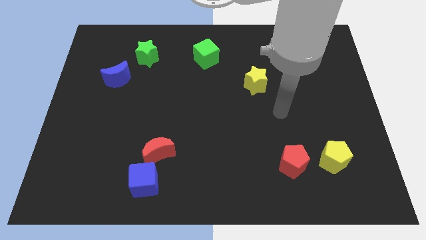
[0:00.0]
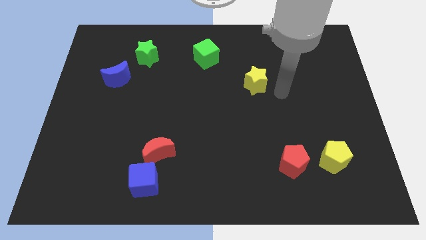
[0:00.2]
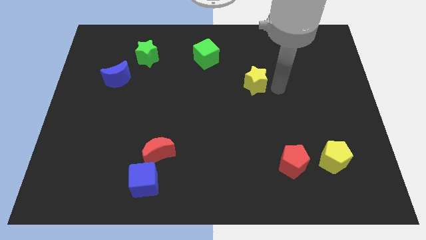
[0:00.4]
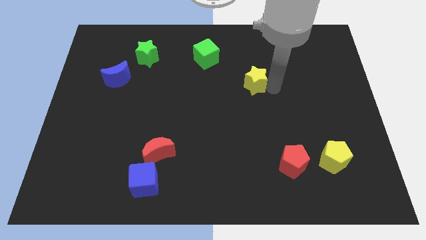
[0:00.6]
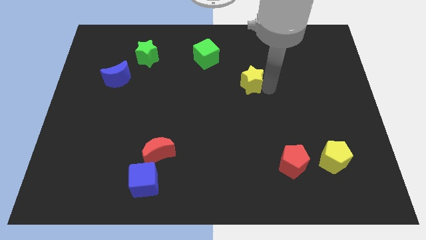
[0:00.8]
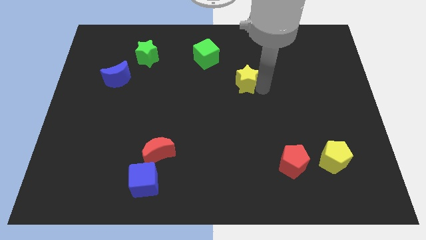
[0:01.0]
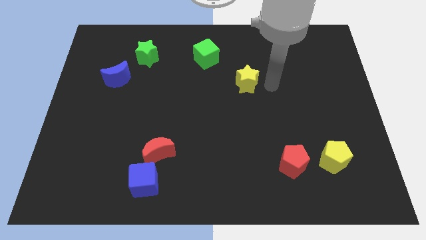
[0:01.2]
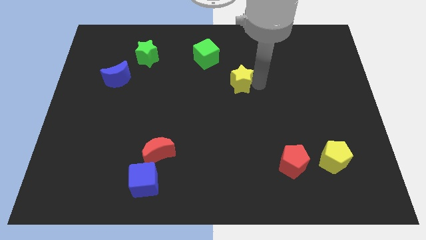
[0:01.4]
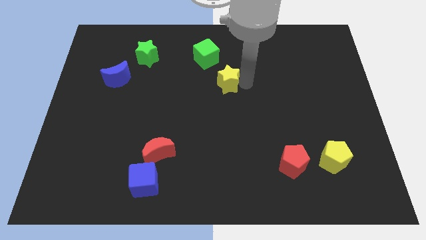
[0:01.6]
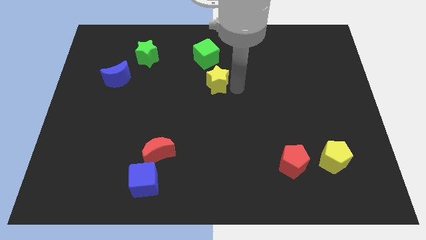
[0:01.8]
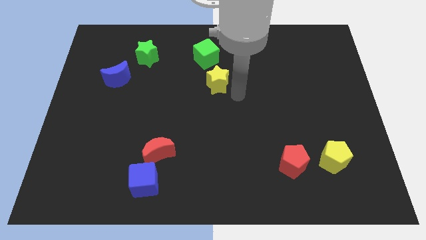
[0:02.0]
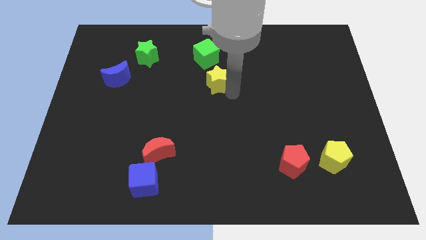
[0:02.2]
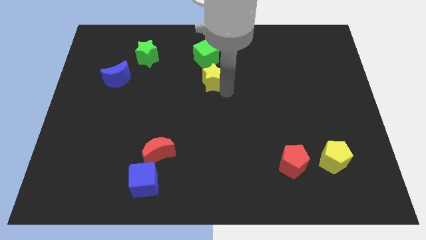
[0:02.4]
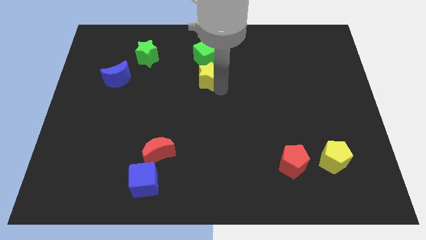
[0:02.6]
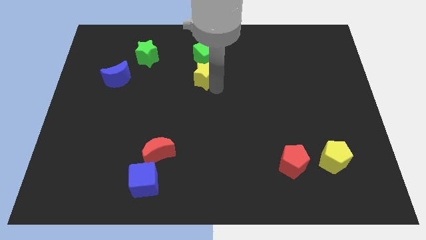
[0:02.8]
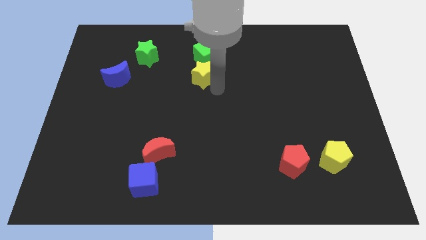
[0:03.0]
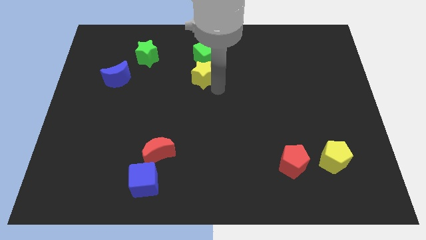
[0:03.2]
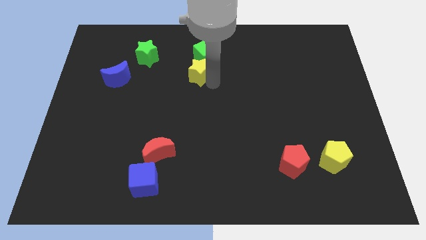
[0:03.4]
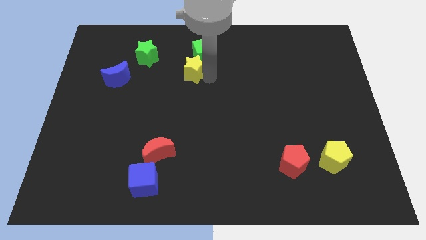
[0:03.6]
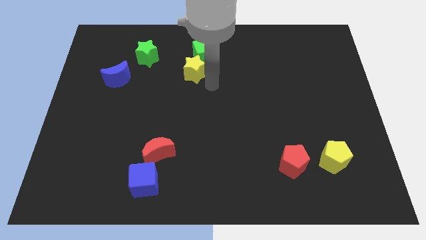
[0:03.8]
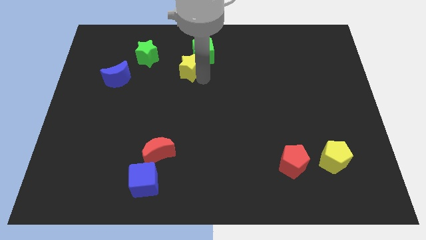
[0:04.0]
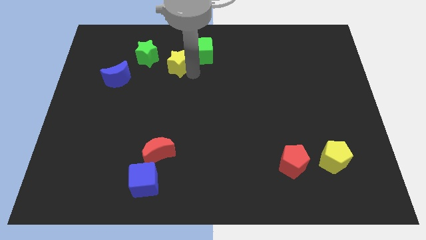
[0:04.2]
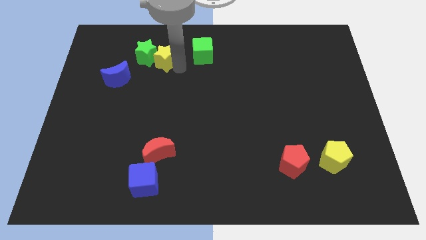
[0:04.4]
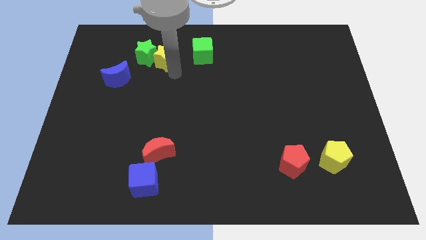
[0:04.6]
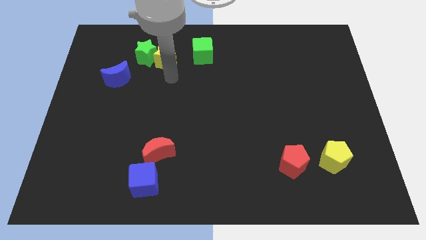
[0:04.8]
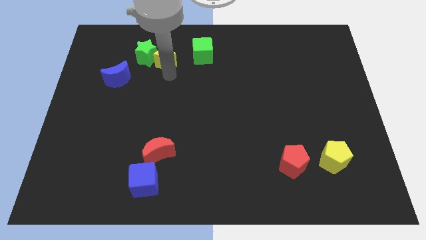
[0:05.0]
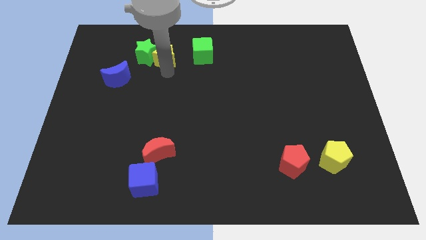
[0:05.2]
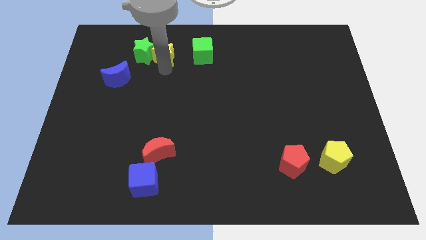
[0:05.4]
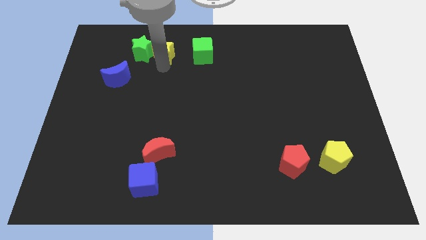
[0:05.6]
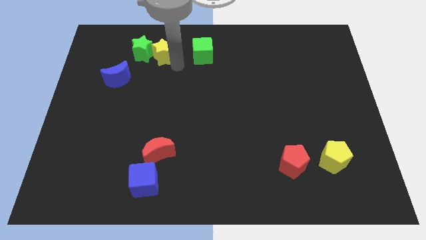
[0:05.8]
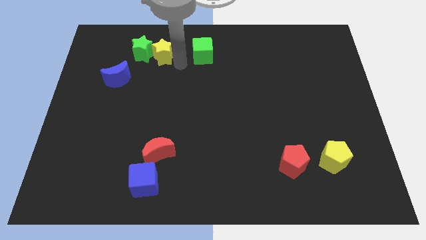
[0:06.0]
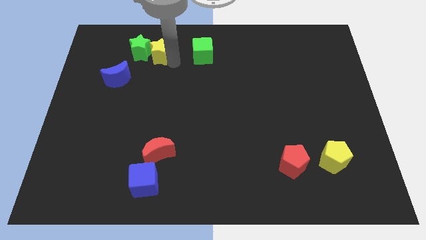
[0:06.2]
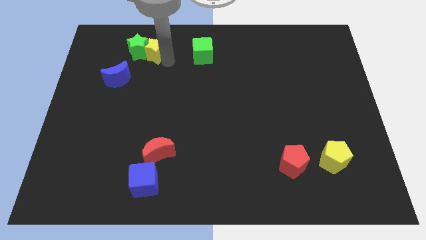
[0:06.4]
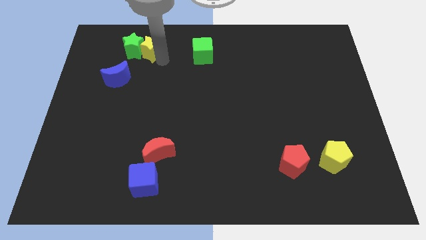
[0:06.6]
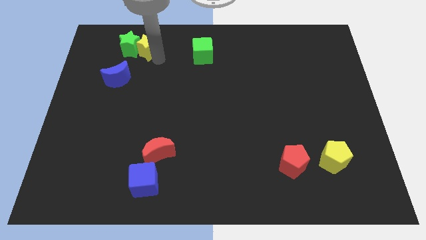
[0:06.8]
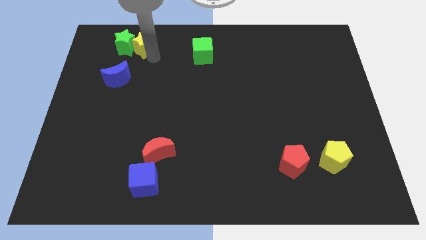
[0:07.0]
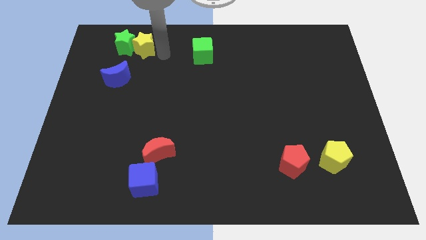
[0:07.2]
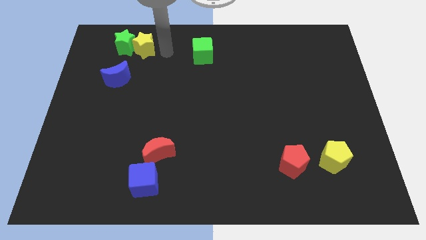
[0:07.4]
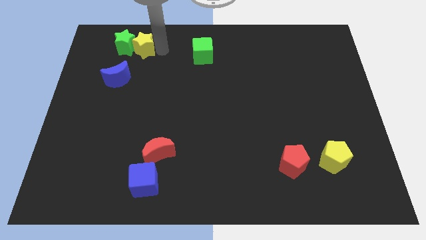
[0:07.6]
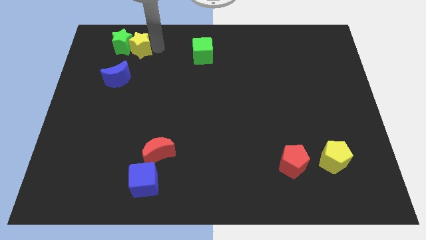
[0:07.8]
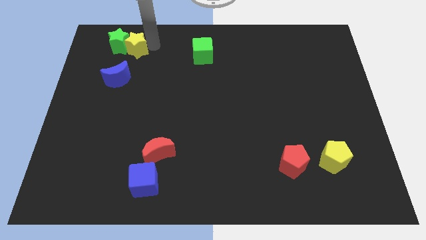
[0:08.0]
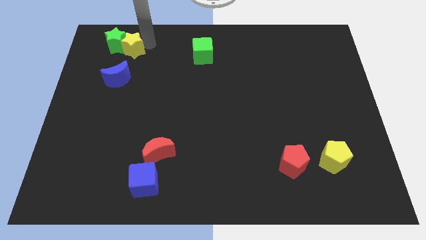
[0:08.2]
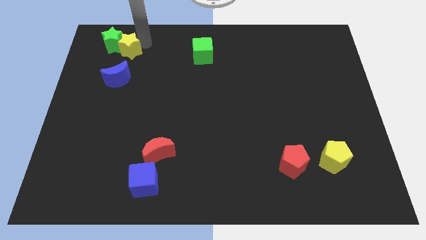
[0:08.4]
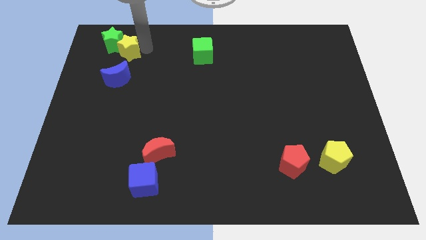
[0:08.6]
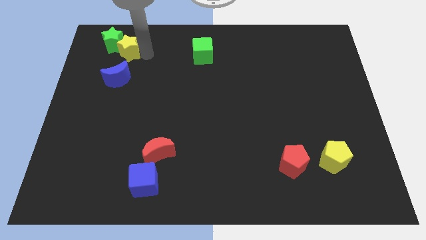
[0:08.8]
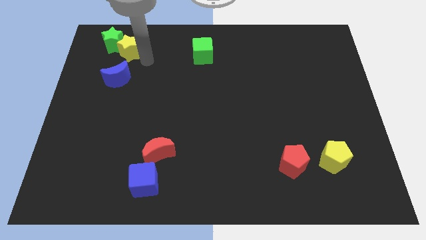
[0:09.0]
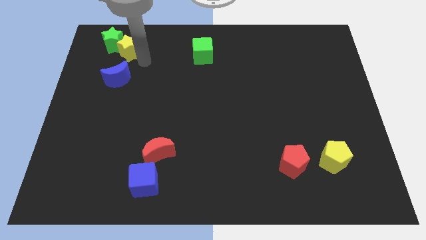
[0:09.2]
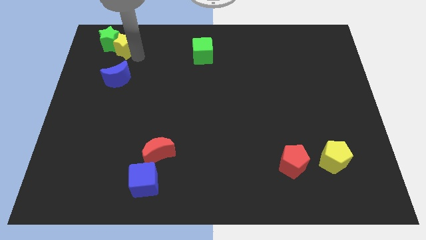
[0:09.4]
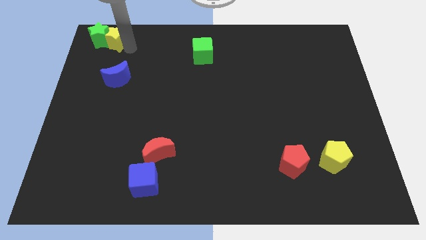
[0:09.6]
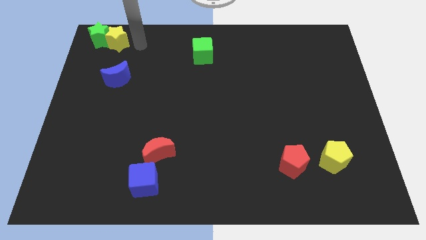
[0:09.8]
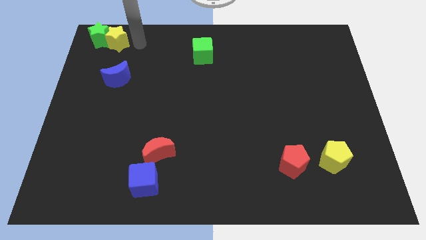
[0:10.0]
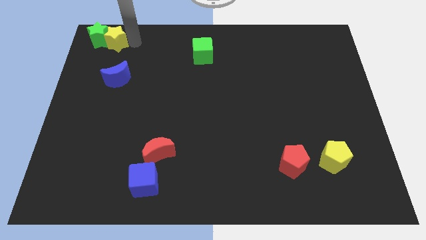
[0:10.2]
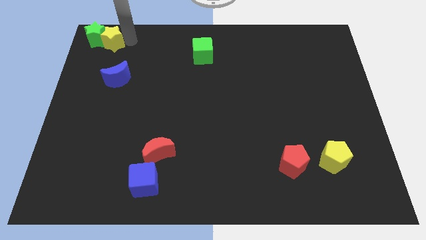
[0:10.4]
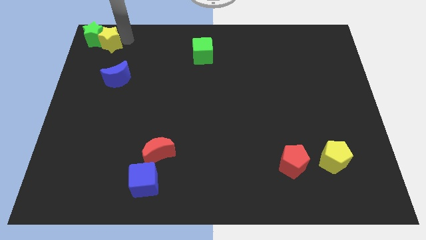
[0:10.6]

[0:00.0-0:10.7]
push the yellow star to the top left corner

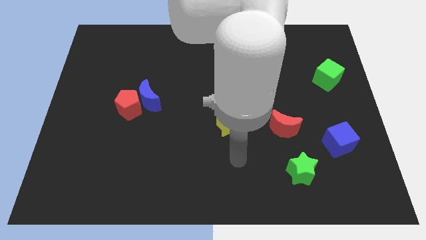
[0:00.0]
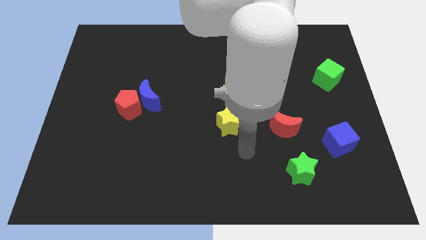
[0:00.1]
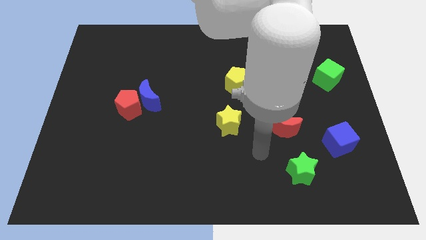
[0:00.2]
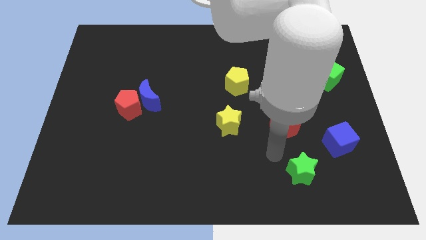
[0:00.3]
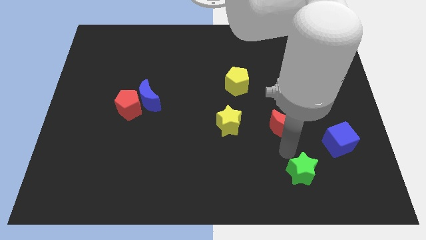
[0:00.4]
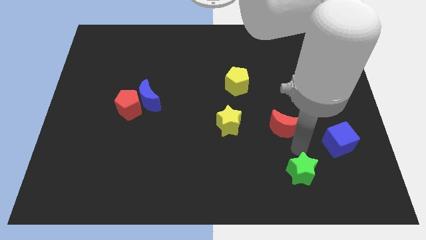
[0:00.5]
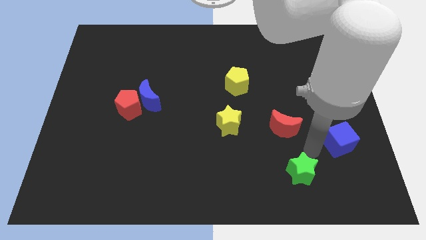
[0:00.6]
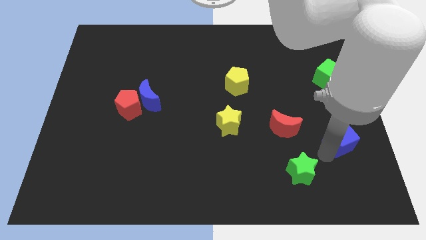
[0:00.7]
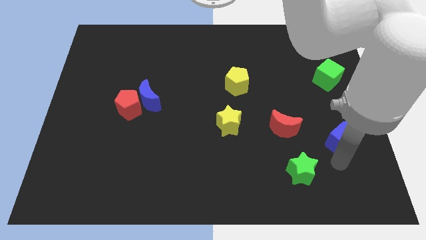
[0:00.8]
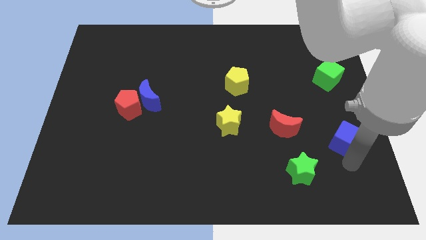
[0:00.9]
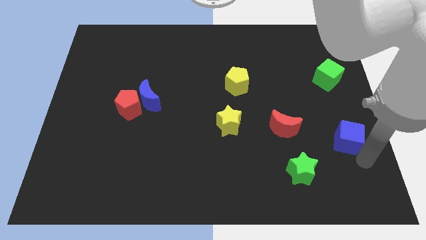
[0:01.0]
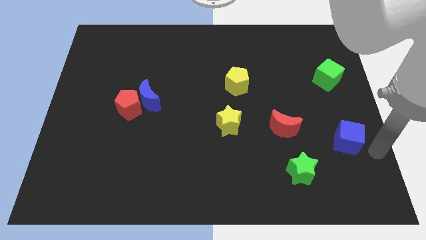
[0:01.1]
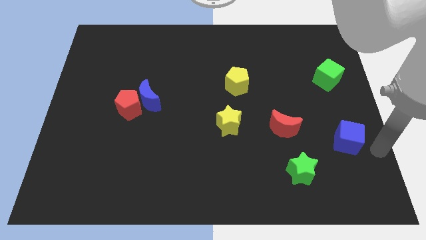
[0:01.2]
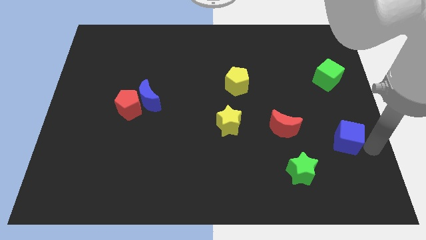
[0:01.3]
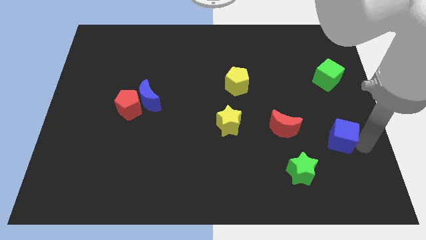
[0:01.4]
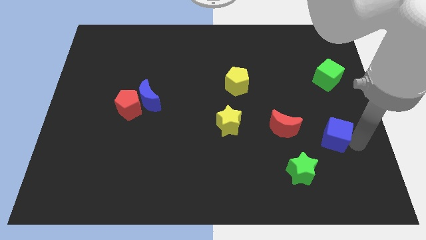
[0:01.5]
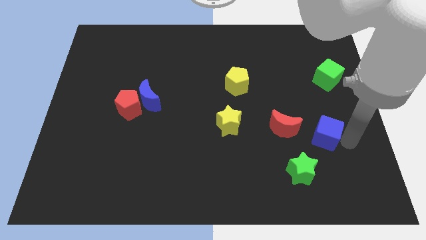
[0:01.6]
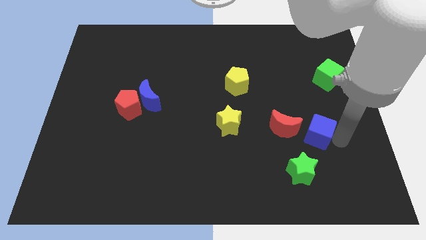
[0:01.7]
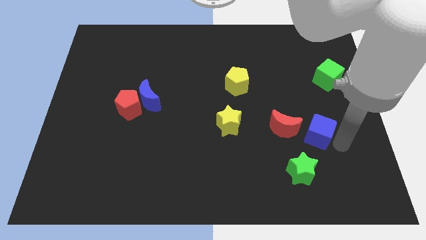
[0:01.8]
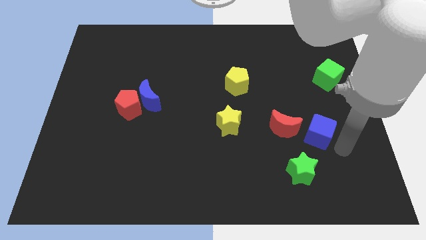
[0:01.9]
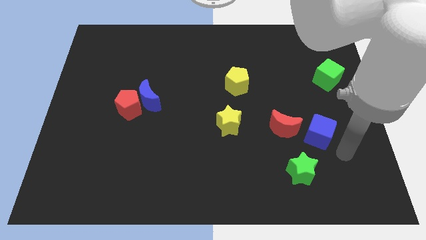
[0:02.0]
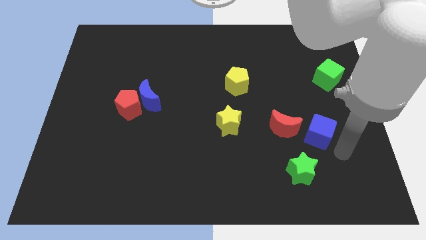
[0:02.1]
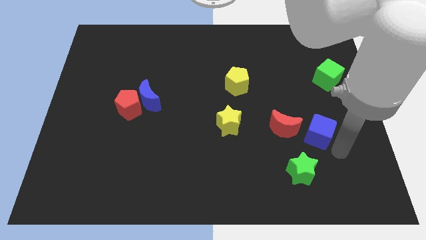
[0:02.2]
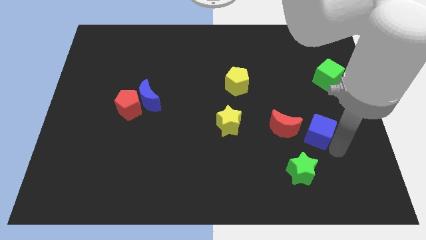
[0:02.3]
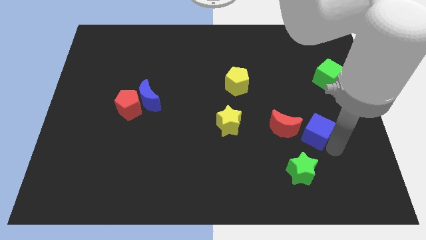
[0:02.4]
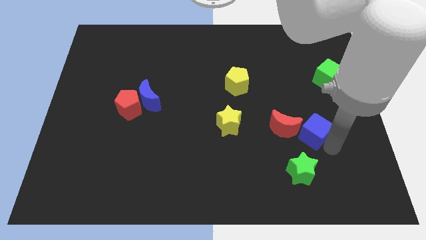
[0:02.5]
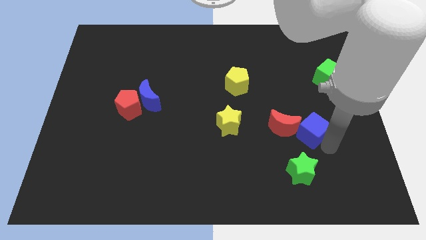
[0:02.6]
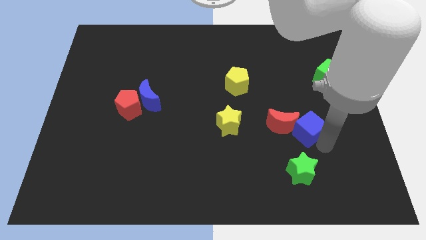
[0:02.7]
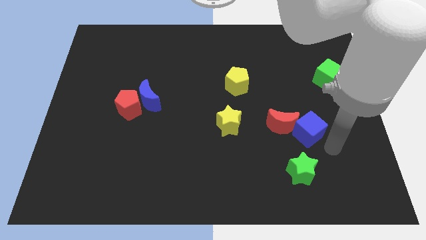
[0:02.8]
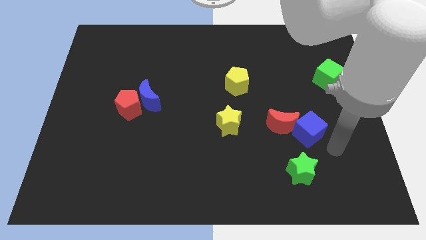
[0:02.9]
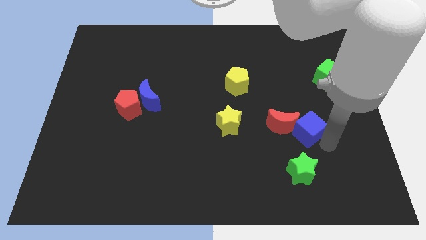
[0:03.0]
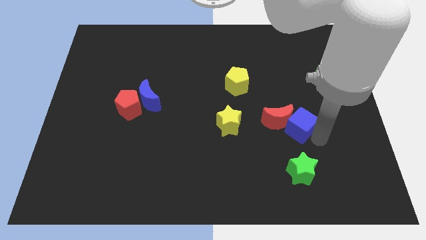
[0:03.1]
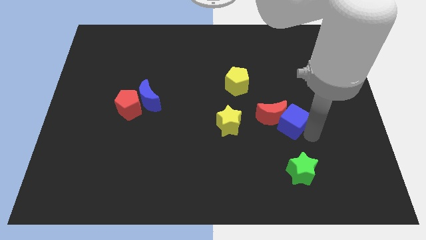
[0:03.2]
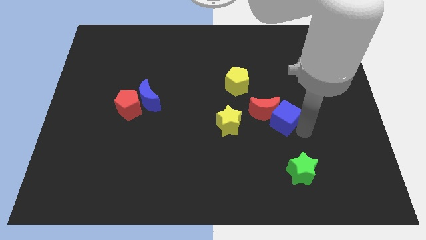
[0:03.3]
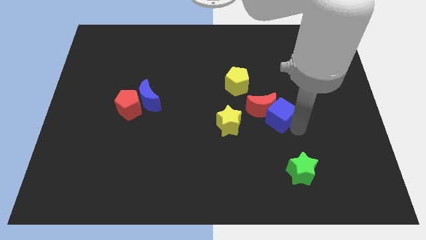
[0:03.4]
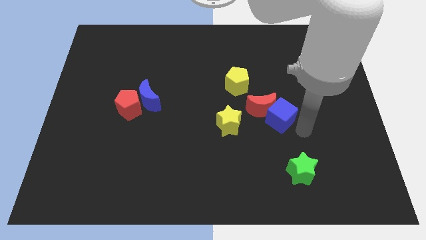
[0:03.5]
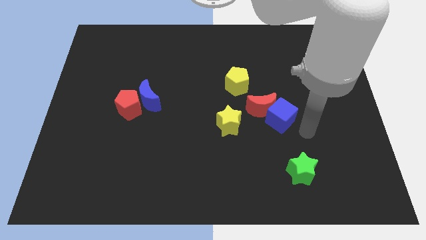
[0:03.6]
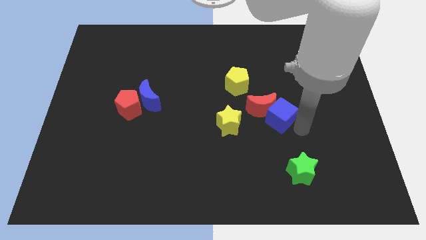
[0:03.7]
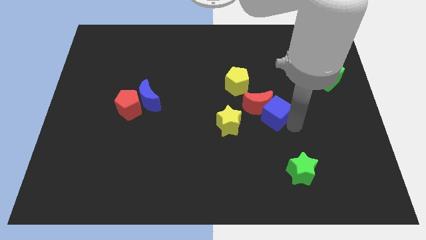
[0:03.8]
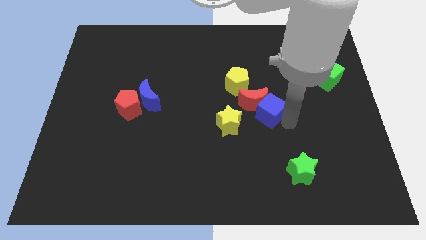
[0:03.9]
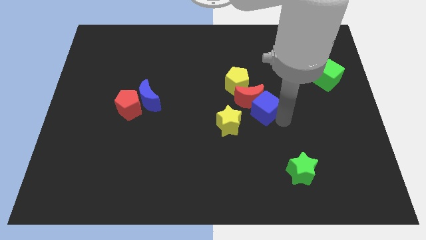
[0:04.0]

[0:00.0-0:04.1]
put the blue cube to the middle
